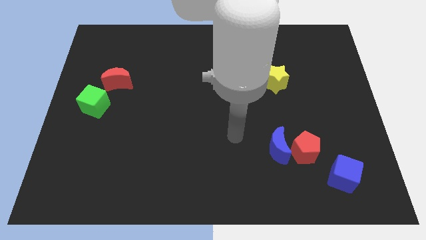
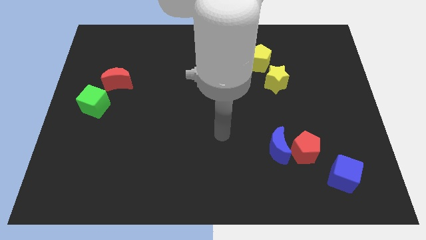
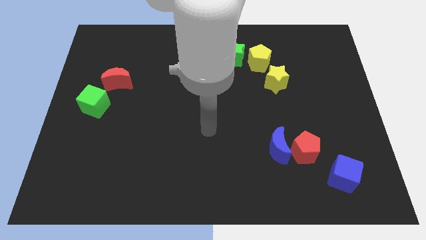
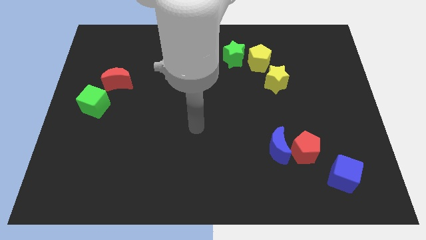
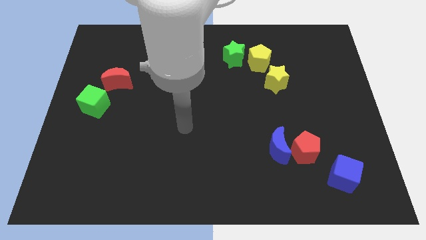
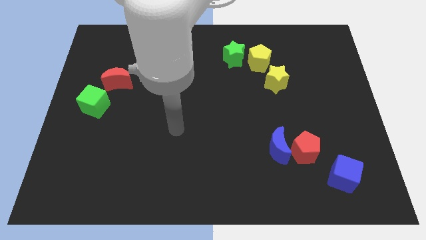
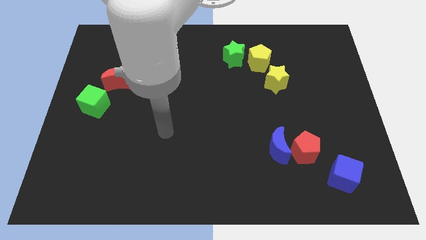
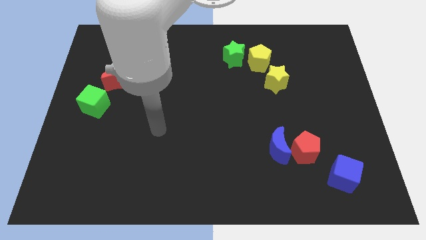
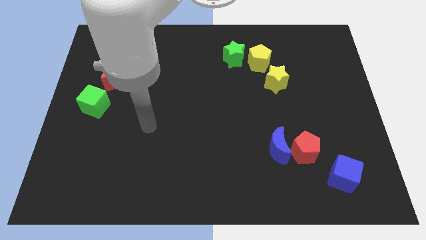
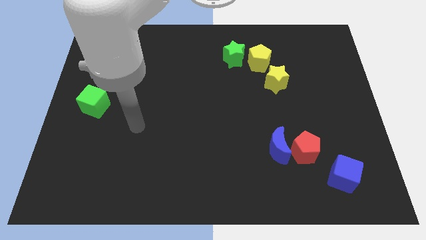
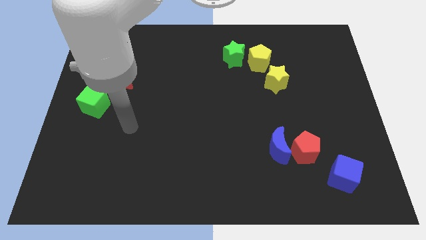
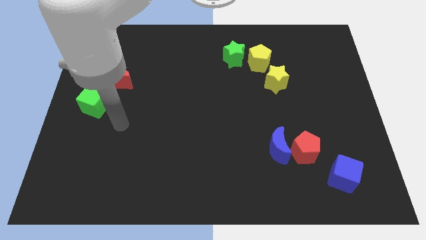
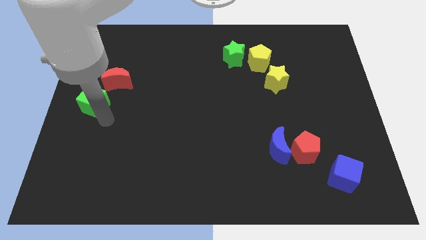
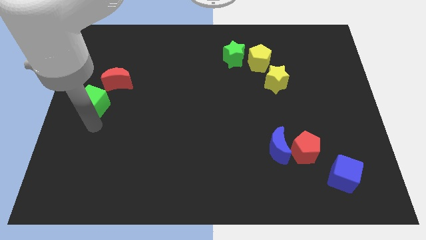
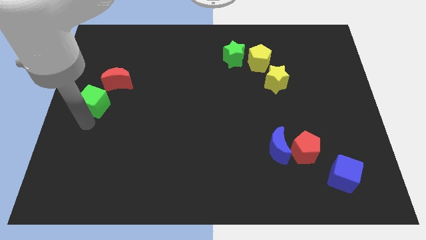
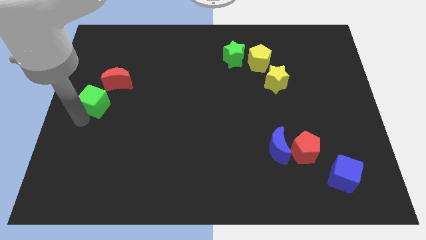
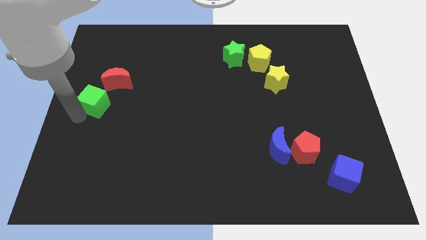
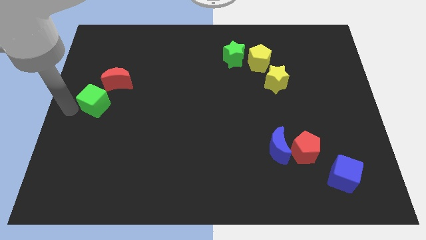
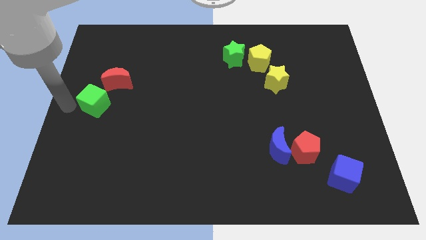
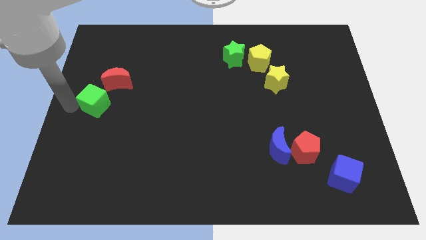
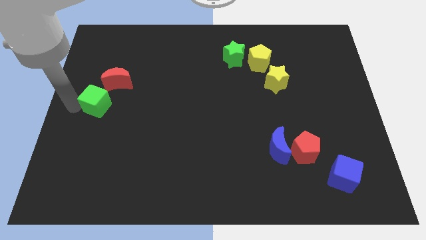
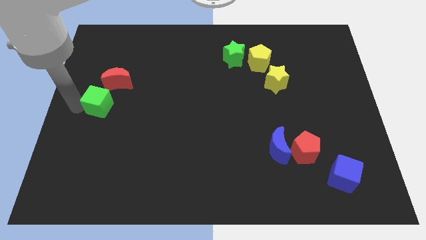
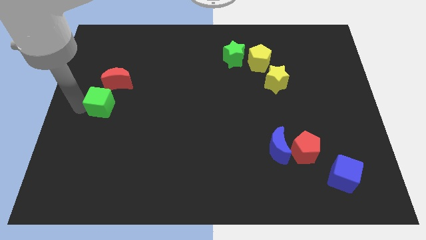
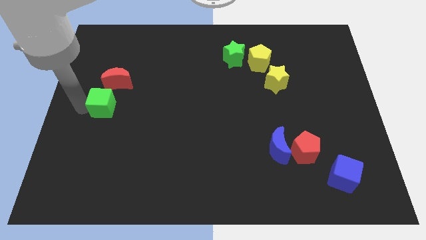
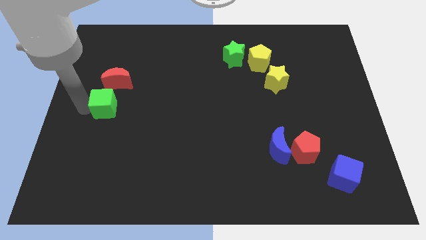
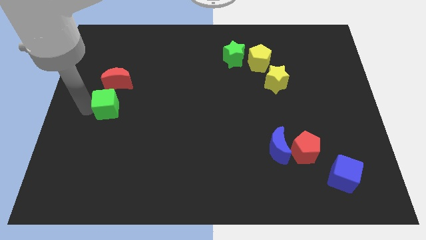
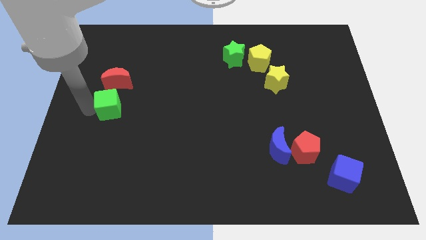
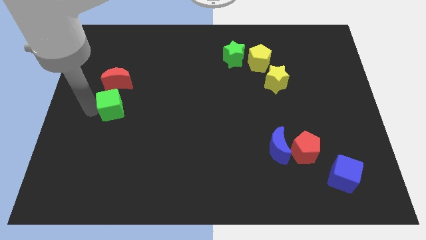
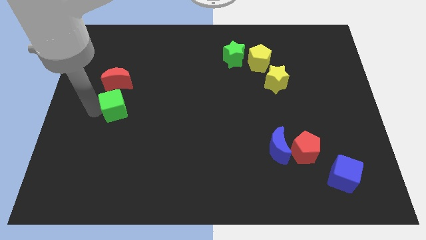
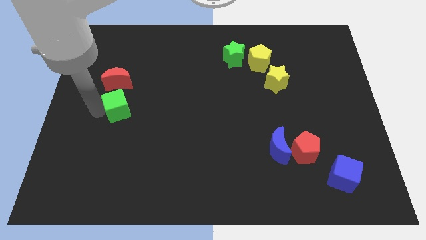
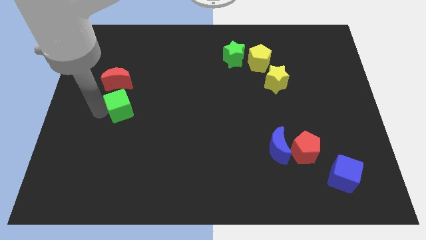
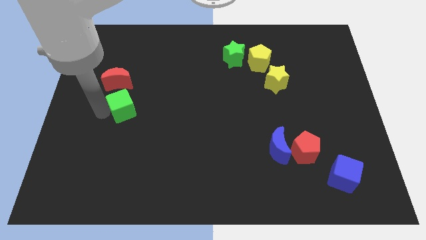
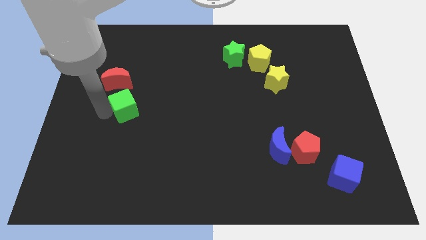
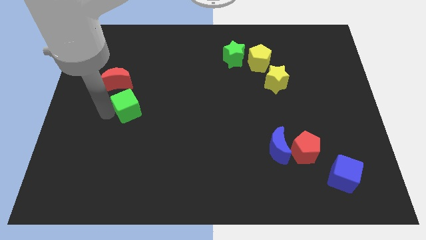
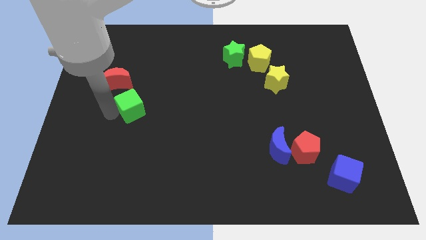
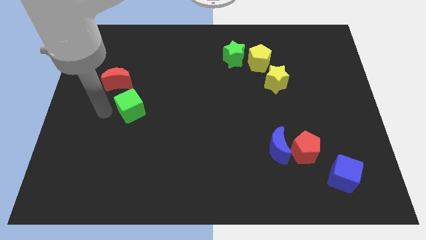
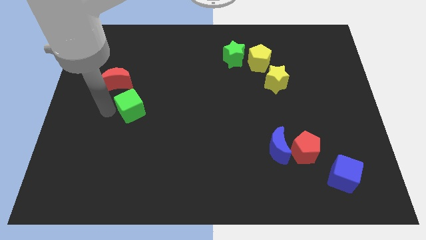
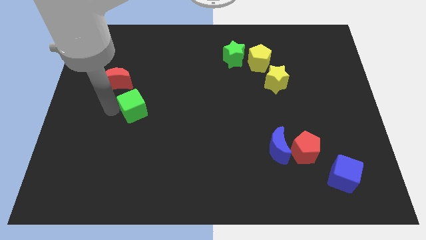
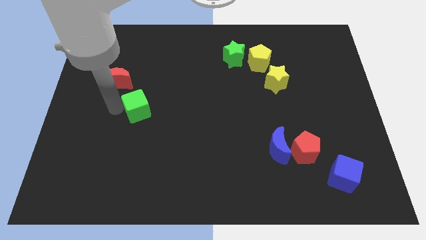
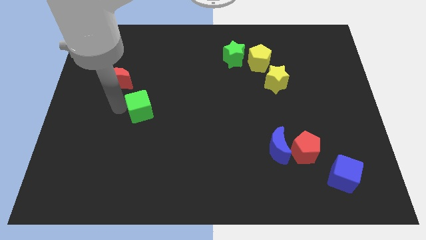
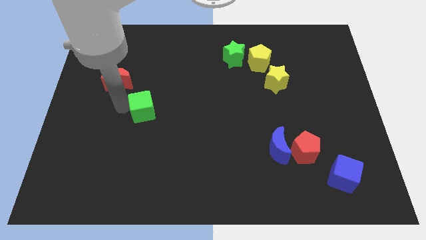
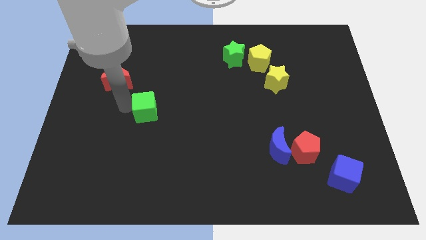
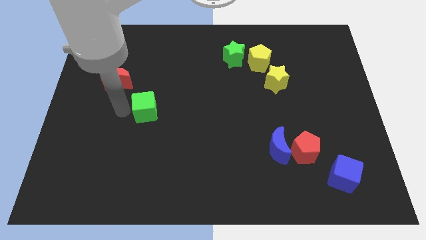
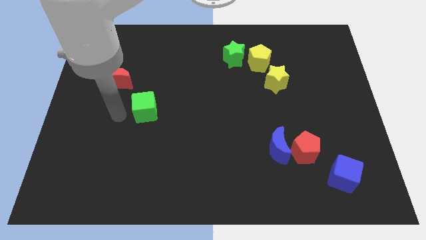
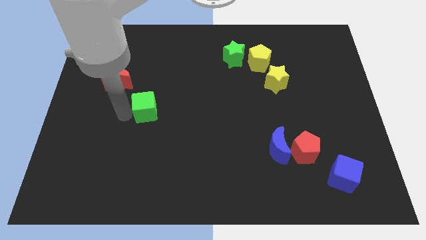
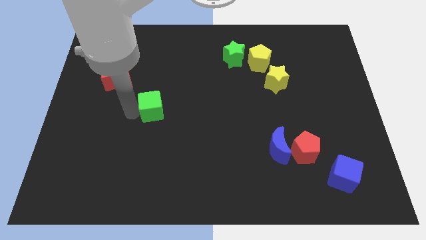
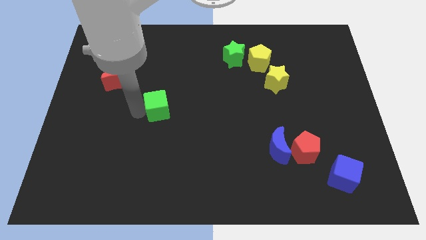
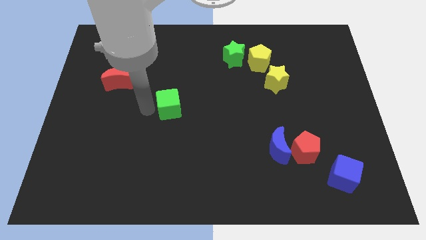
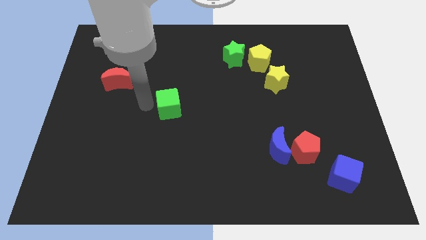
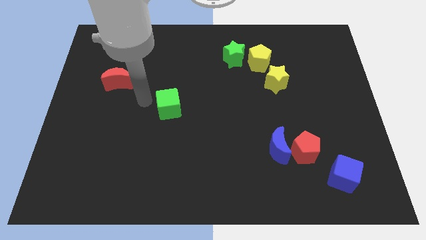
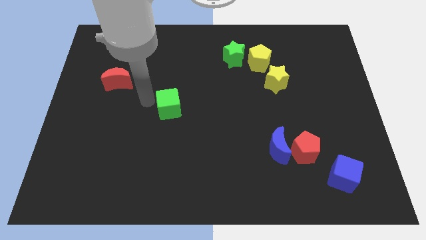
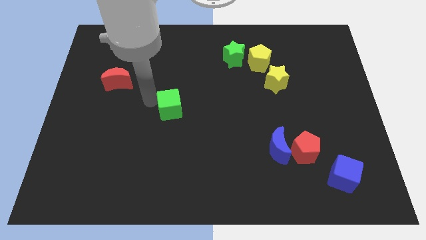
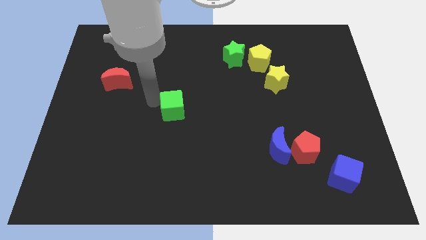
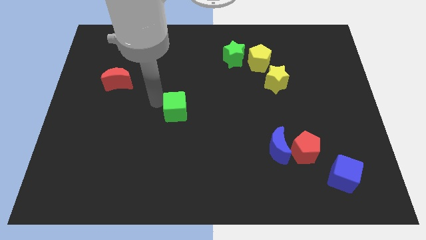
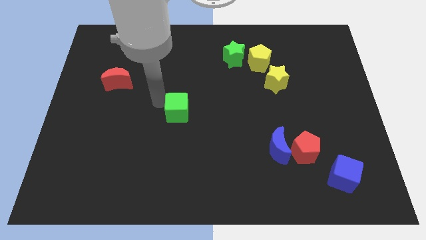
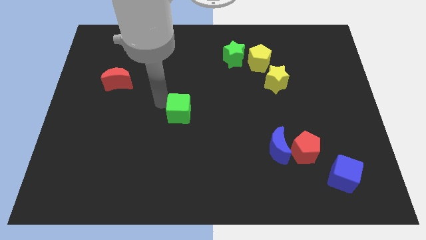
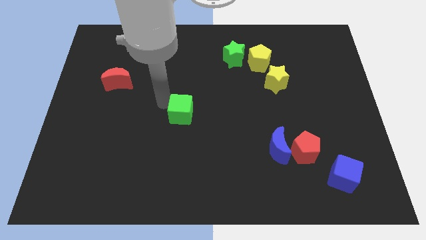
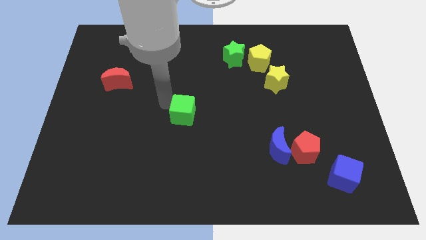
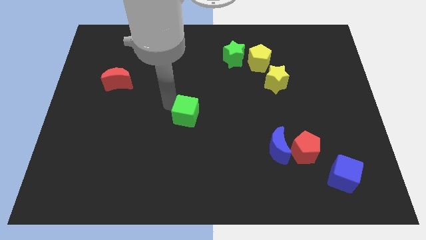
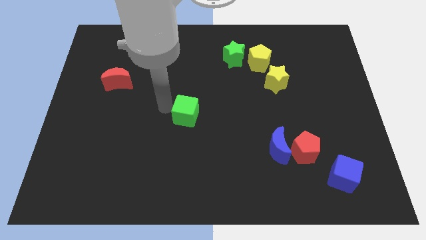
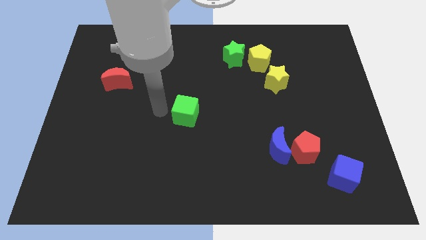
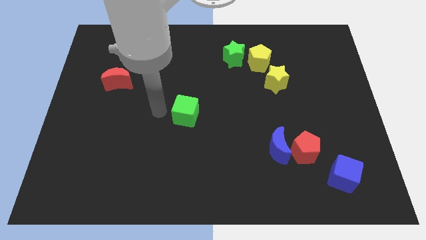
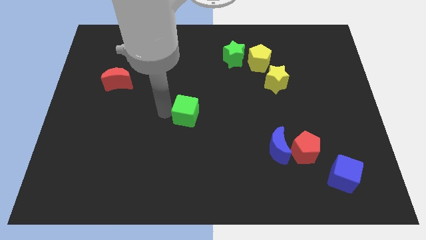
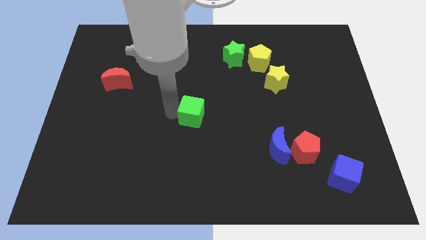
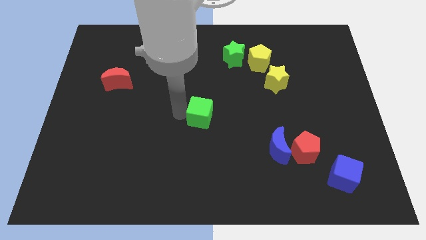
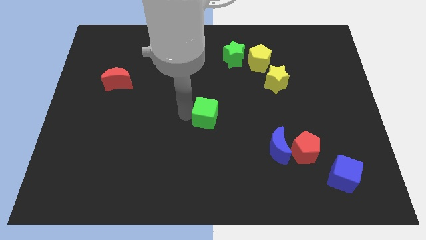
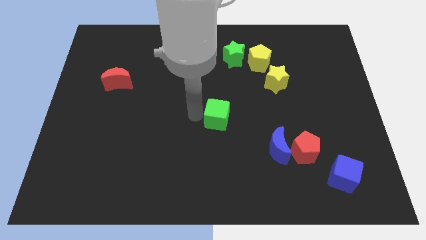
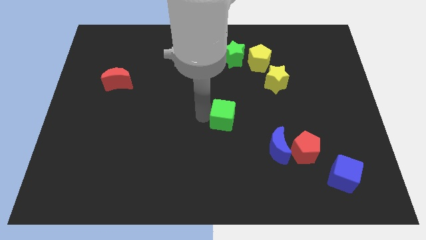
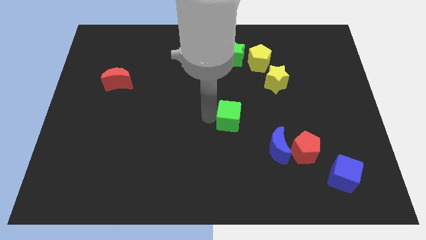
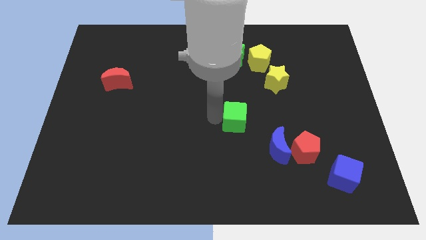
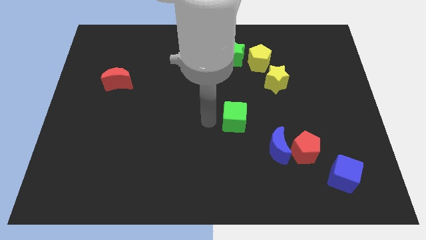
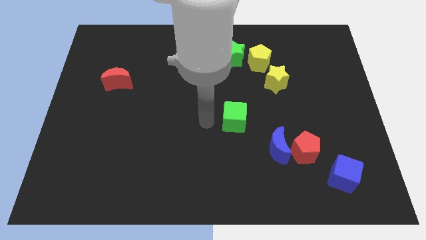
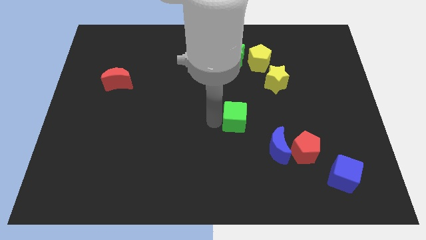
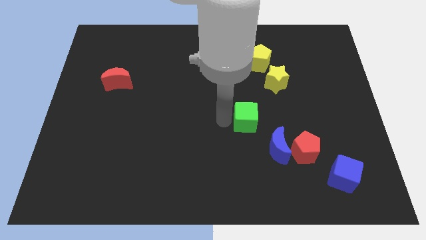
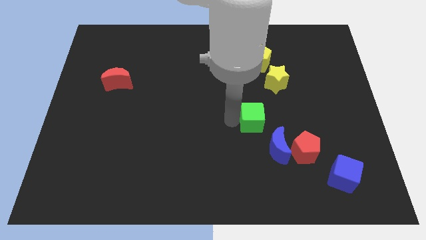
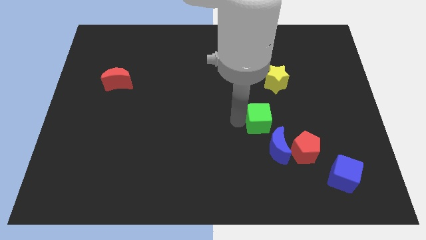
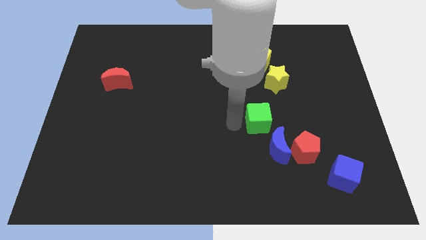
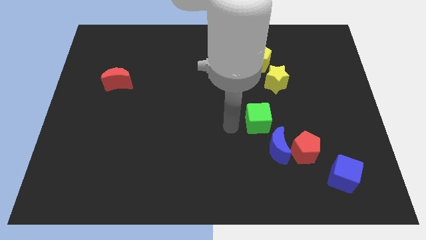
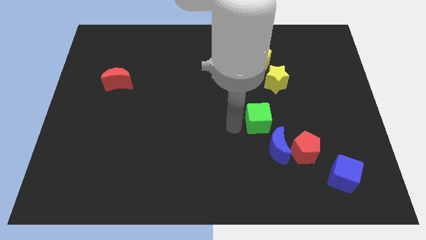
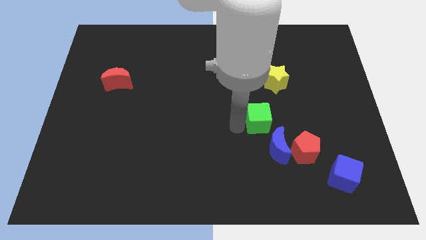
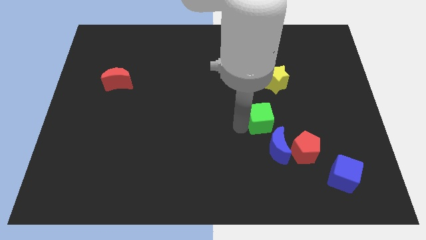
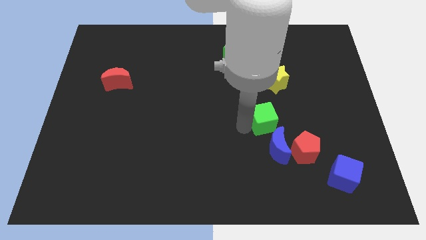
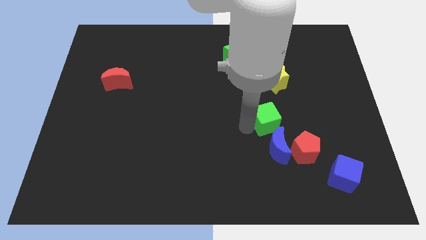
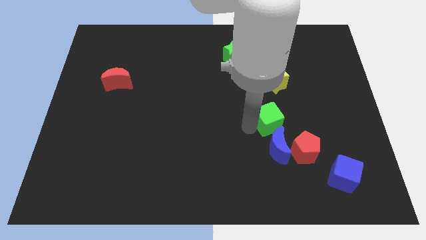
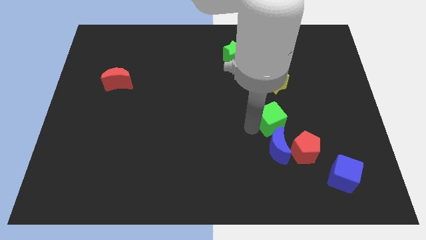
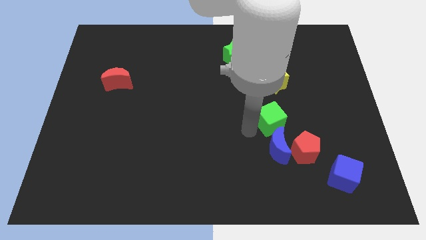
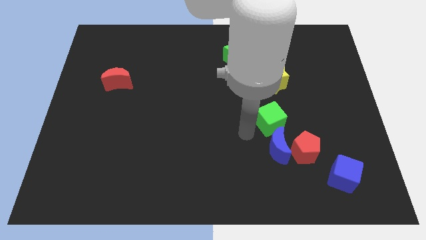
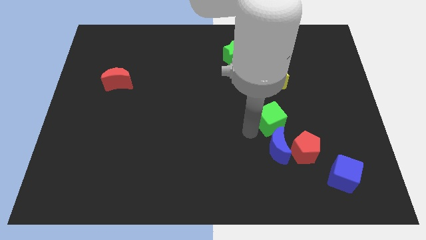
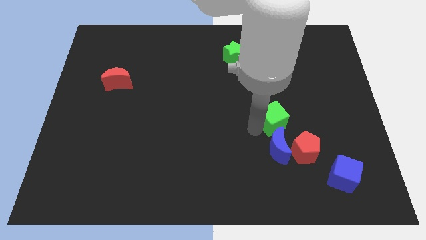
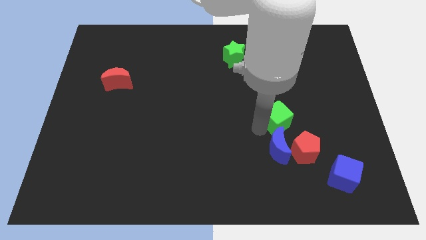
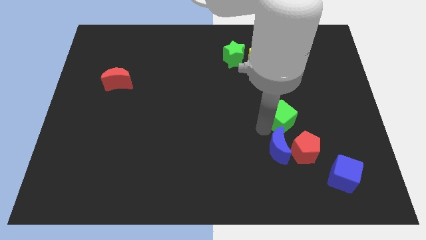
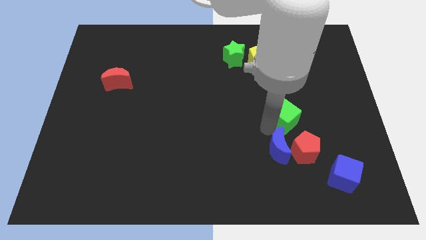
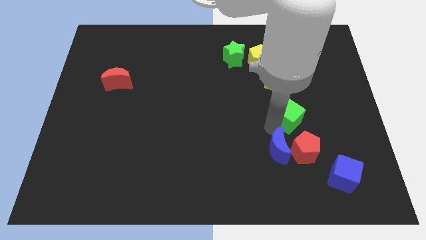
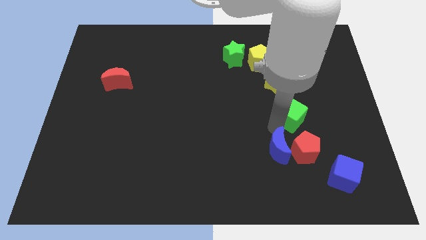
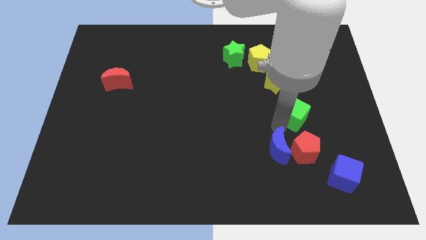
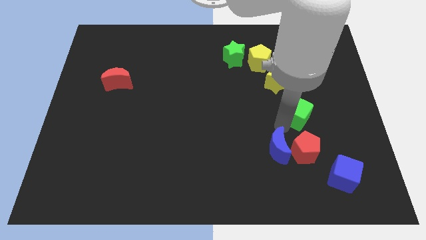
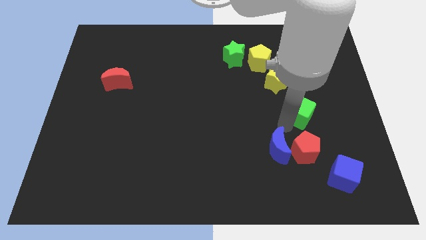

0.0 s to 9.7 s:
move the green cube to the bottom right side of the yellow star
